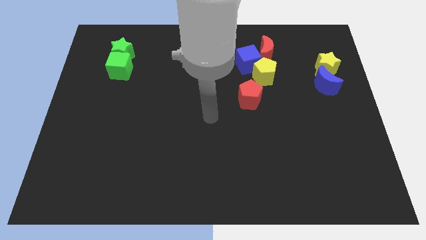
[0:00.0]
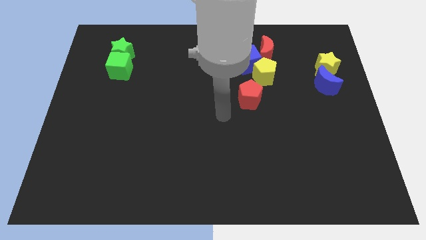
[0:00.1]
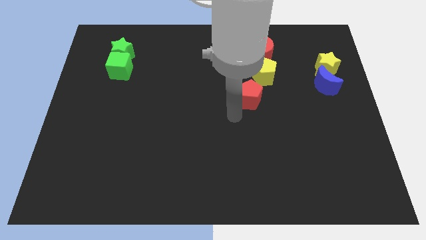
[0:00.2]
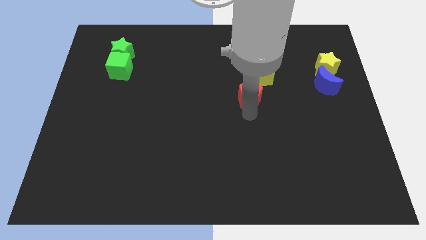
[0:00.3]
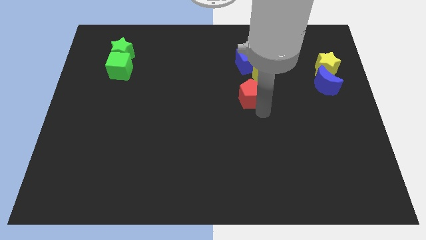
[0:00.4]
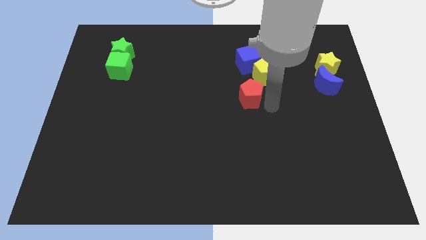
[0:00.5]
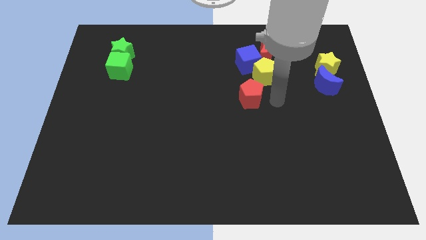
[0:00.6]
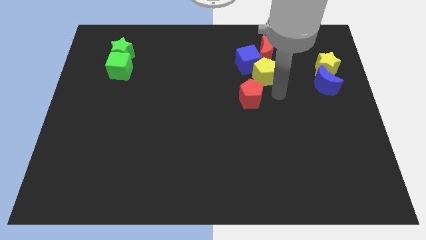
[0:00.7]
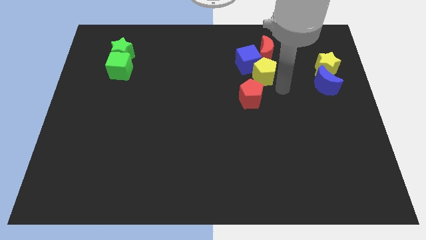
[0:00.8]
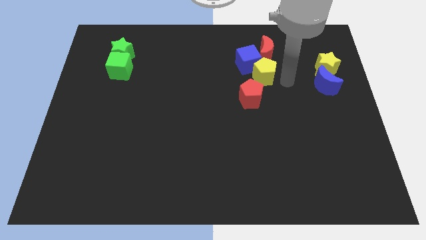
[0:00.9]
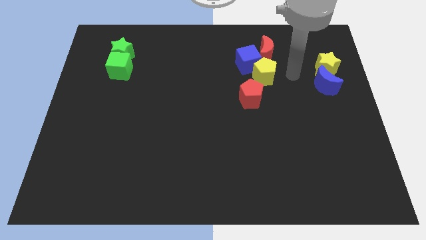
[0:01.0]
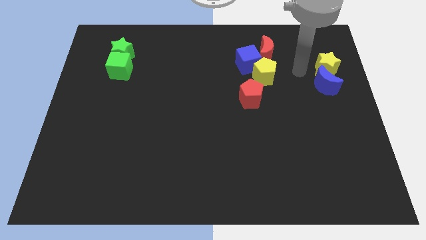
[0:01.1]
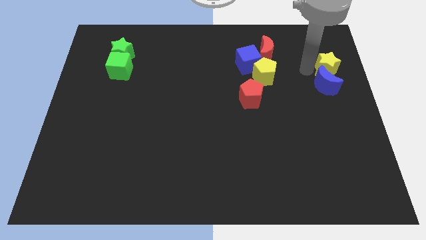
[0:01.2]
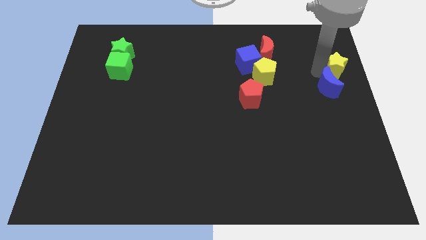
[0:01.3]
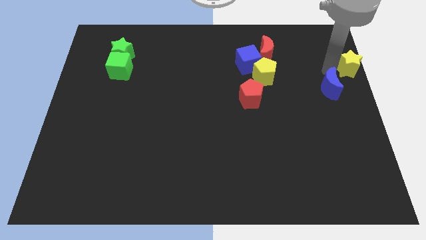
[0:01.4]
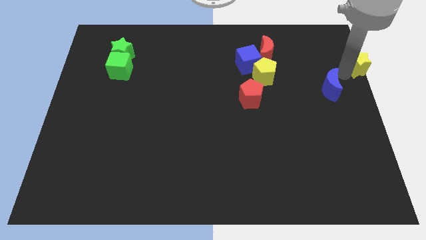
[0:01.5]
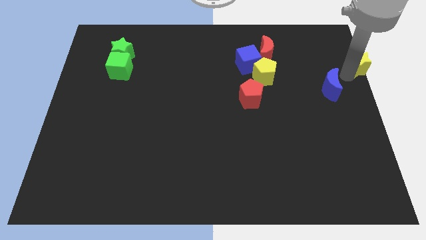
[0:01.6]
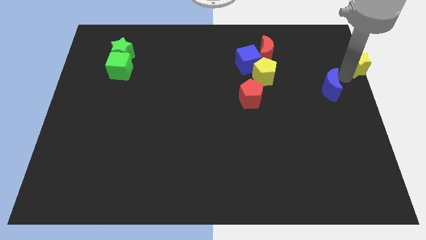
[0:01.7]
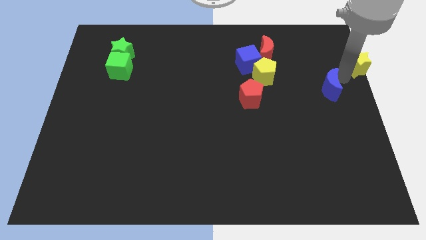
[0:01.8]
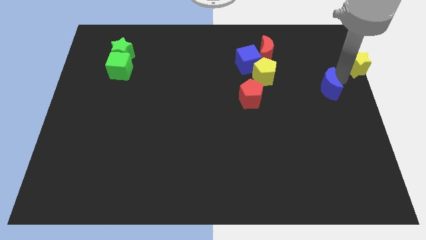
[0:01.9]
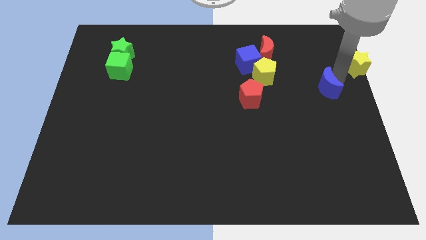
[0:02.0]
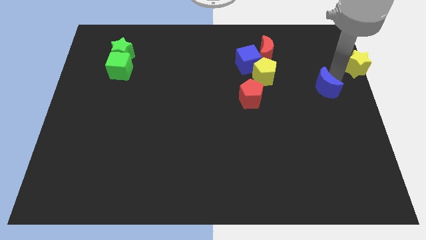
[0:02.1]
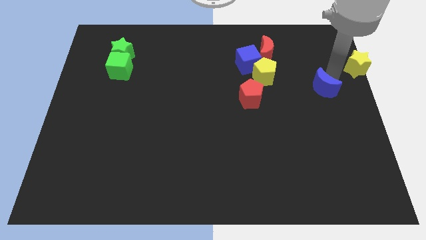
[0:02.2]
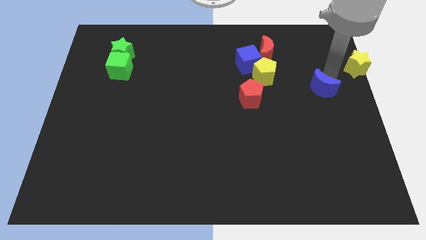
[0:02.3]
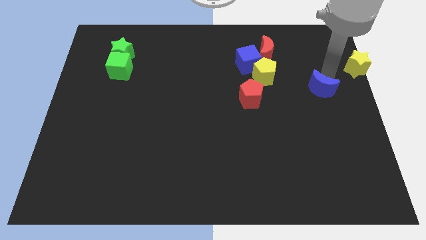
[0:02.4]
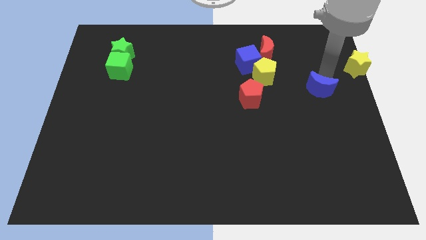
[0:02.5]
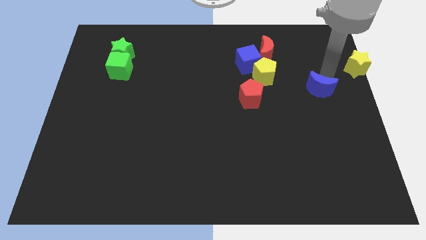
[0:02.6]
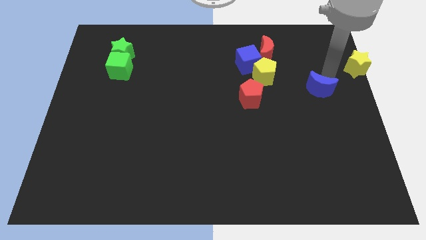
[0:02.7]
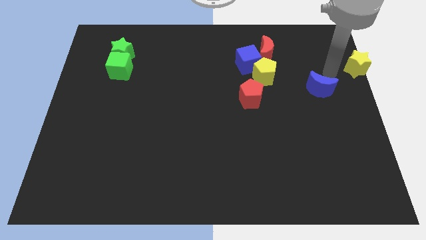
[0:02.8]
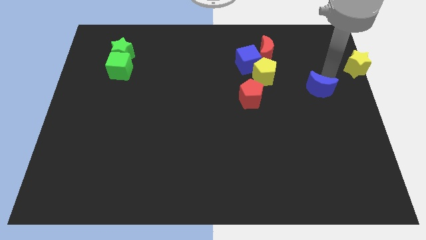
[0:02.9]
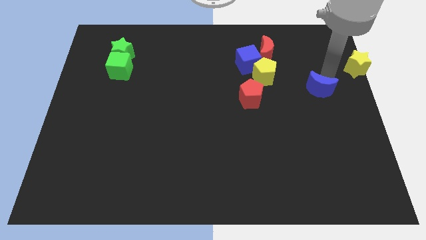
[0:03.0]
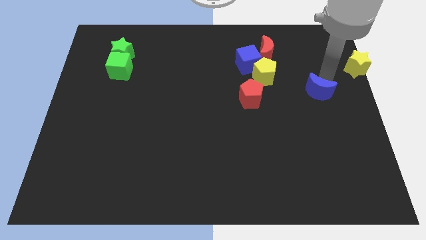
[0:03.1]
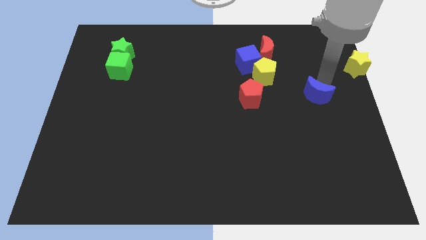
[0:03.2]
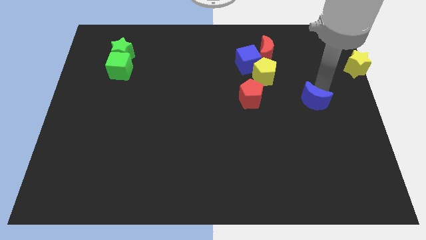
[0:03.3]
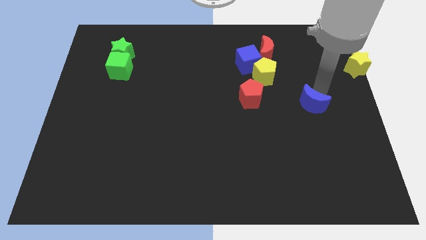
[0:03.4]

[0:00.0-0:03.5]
push the blue moon diagonally down and left a little bit

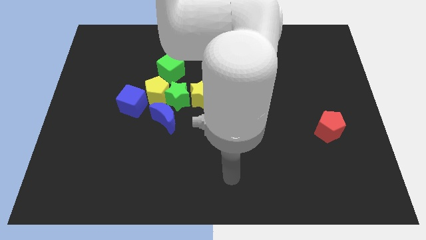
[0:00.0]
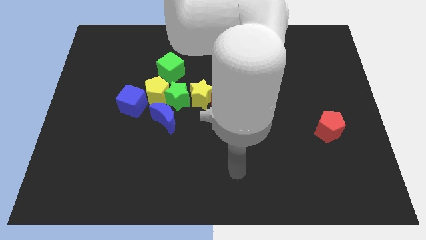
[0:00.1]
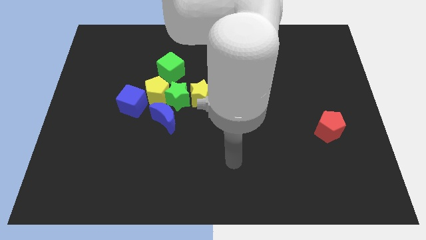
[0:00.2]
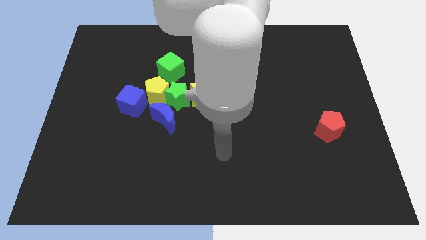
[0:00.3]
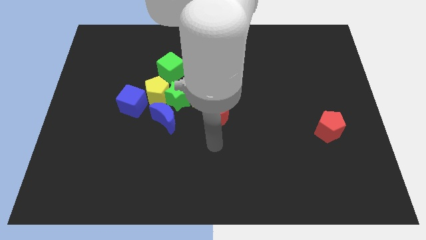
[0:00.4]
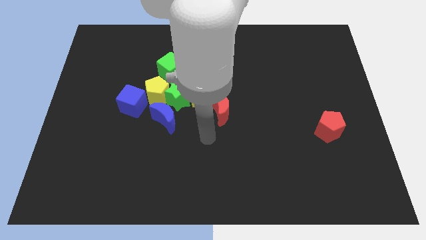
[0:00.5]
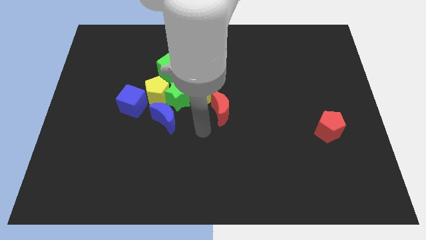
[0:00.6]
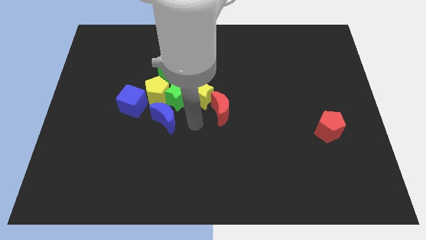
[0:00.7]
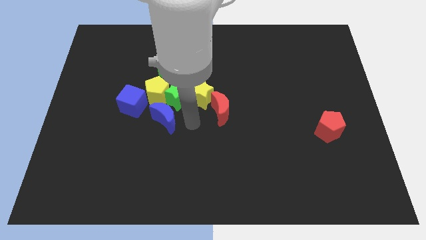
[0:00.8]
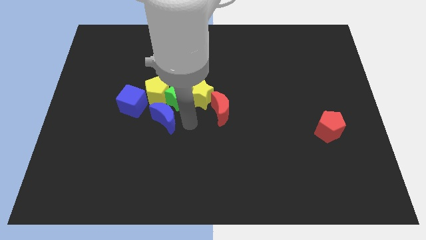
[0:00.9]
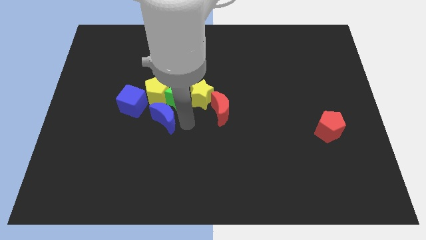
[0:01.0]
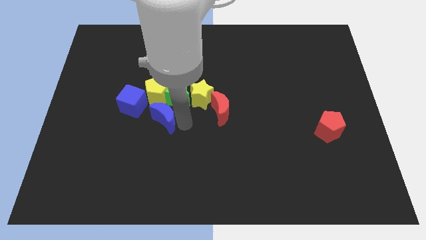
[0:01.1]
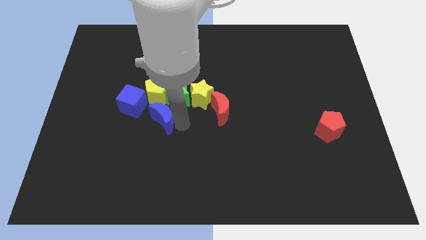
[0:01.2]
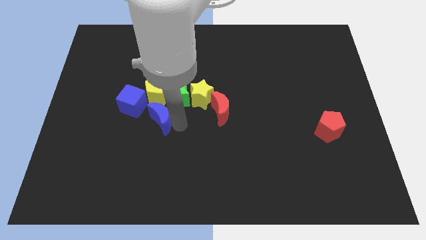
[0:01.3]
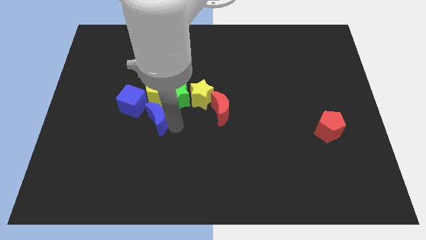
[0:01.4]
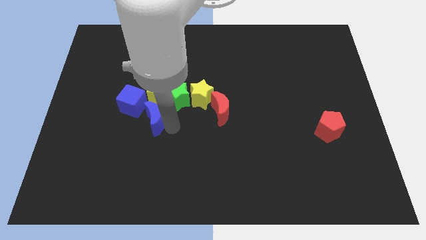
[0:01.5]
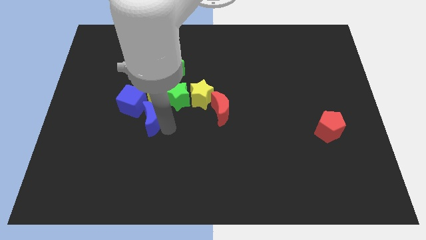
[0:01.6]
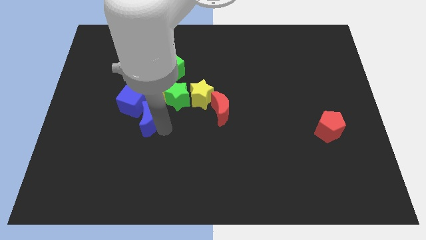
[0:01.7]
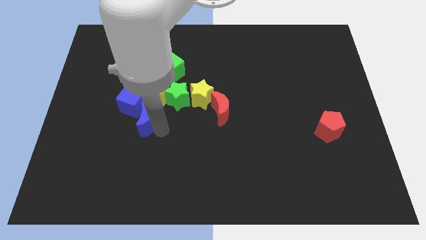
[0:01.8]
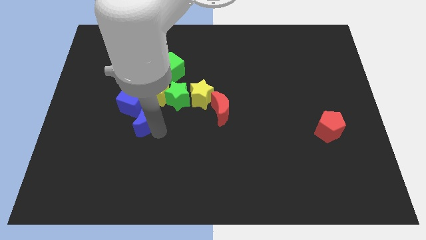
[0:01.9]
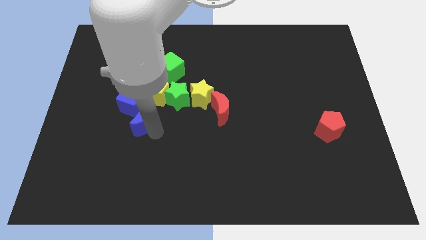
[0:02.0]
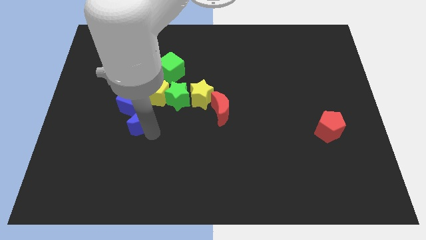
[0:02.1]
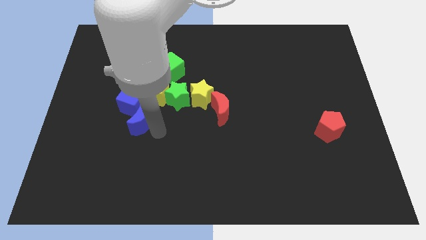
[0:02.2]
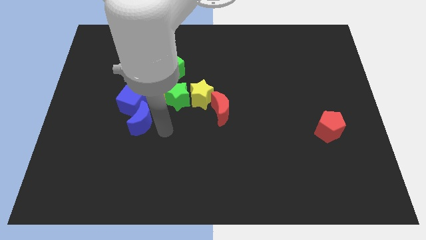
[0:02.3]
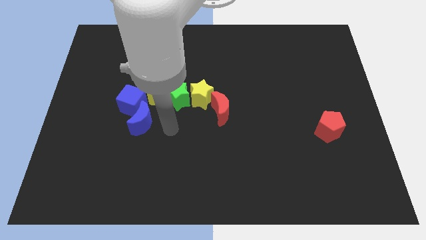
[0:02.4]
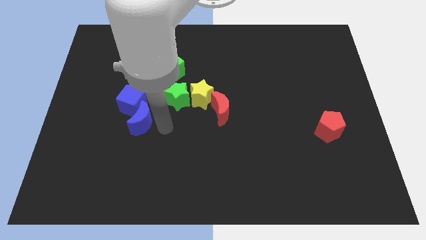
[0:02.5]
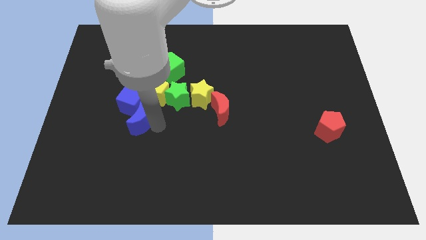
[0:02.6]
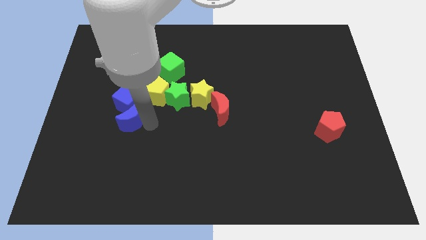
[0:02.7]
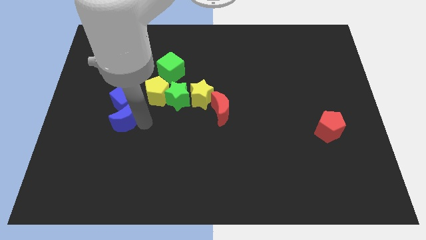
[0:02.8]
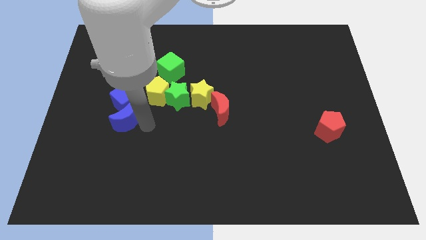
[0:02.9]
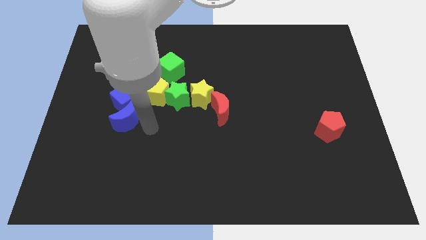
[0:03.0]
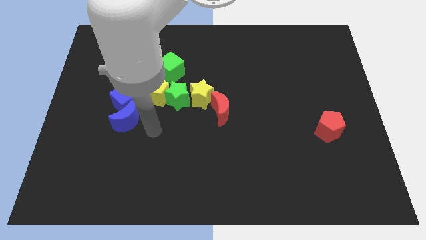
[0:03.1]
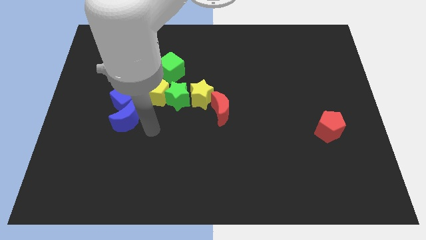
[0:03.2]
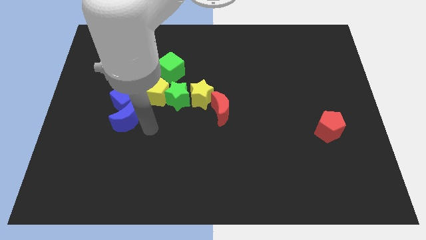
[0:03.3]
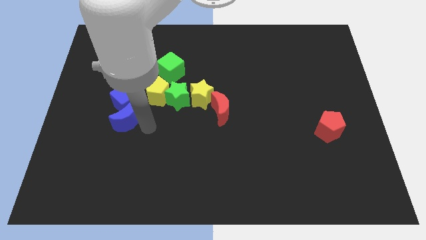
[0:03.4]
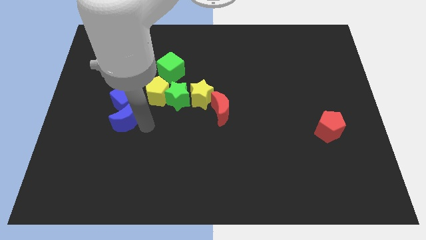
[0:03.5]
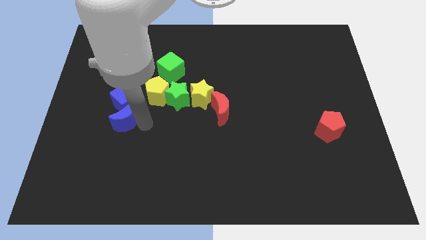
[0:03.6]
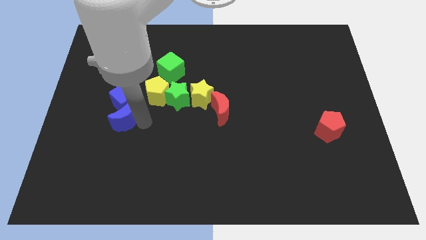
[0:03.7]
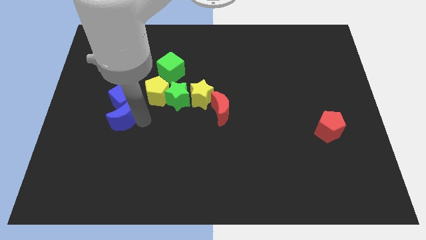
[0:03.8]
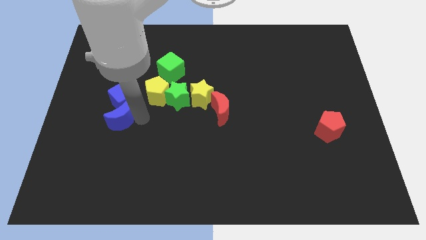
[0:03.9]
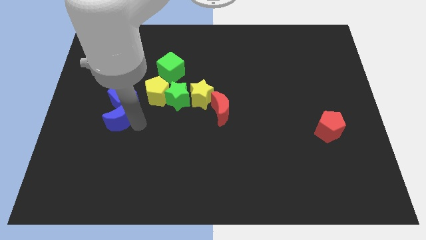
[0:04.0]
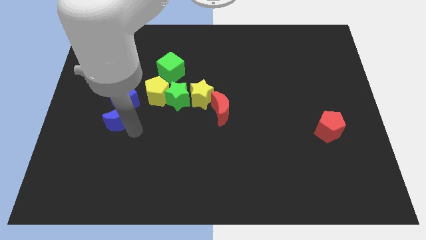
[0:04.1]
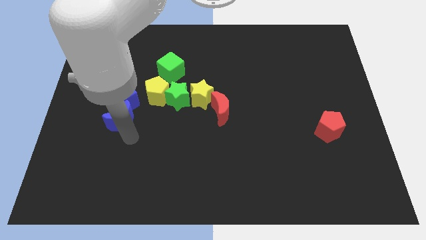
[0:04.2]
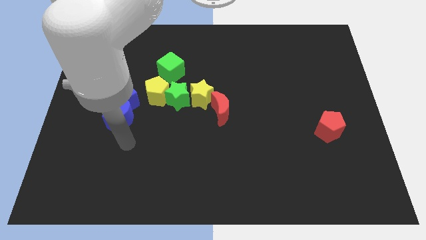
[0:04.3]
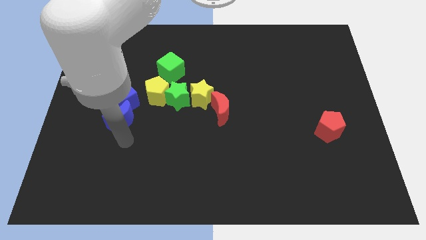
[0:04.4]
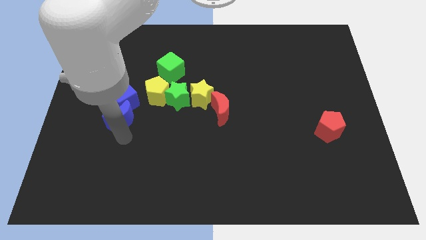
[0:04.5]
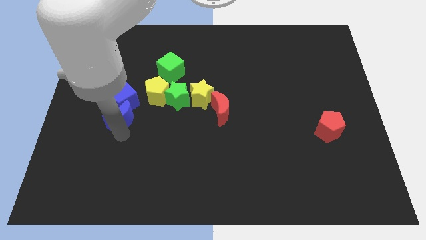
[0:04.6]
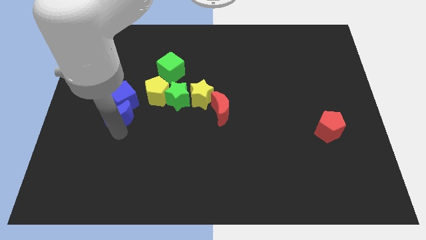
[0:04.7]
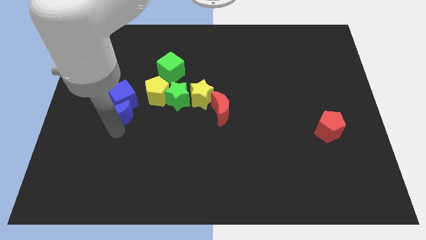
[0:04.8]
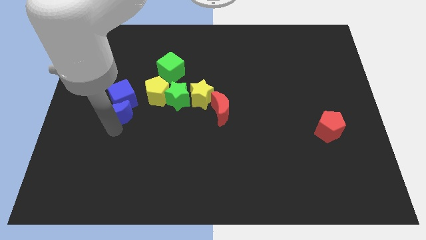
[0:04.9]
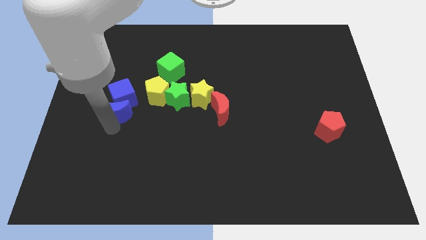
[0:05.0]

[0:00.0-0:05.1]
slightly slide the blue moon upwards and then left
